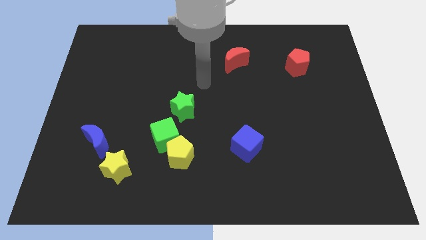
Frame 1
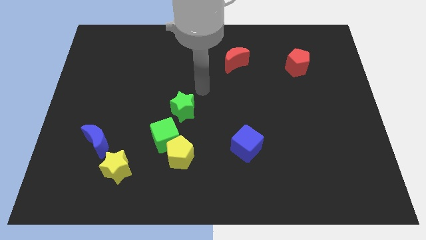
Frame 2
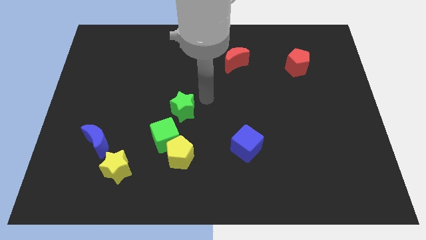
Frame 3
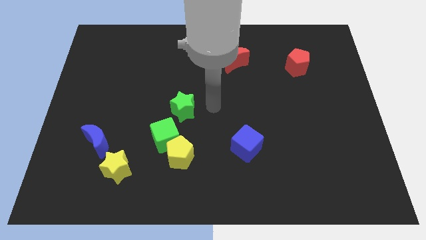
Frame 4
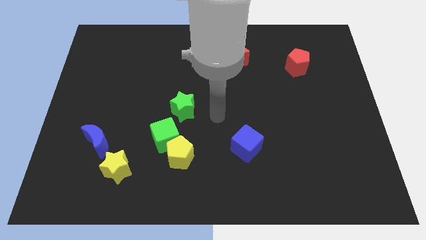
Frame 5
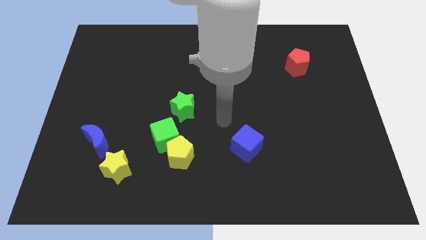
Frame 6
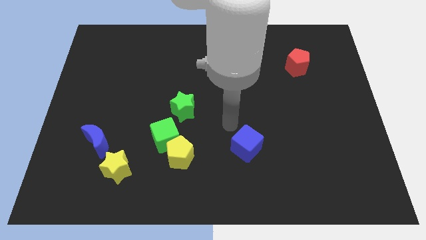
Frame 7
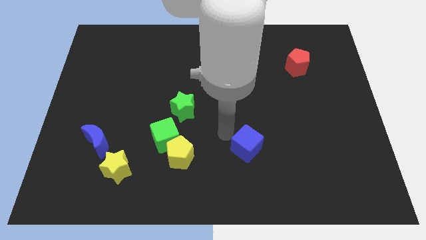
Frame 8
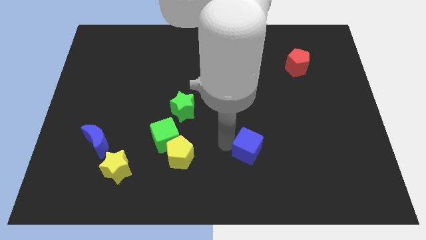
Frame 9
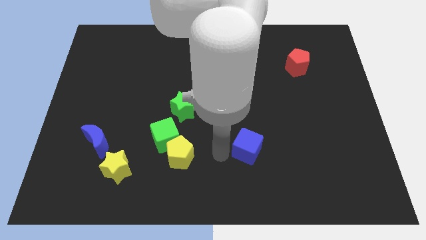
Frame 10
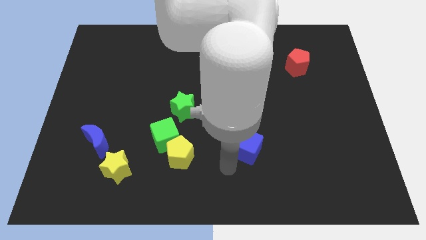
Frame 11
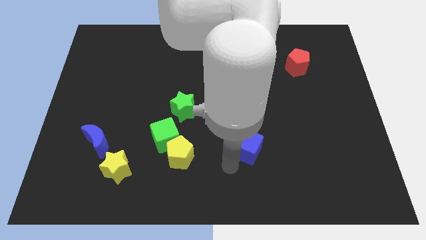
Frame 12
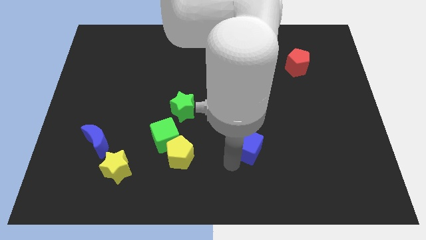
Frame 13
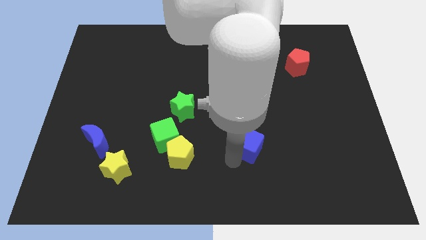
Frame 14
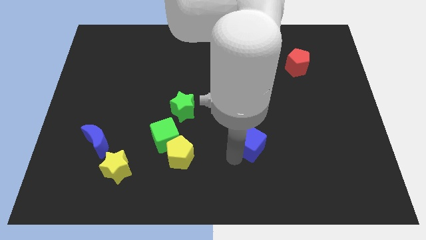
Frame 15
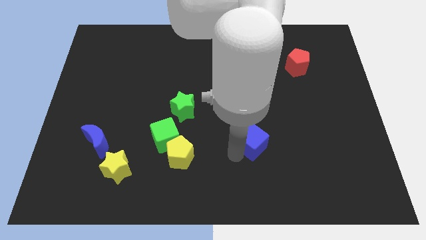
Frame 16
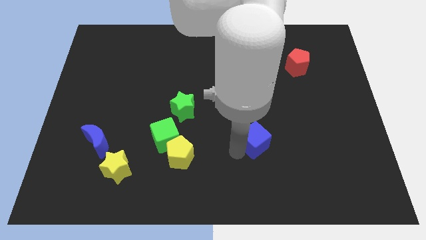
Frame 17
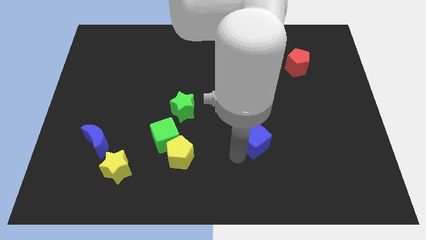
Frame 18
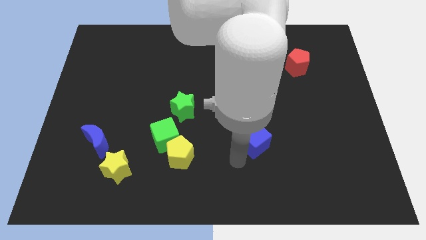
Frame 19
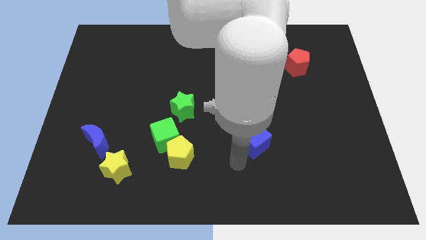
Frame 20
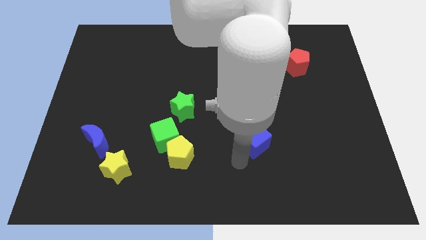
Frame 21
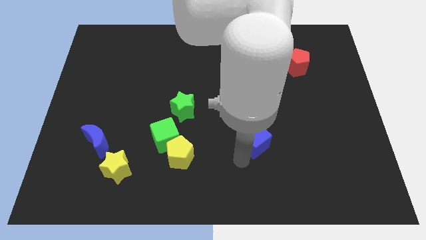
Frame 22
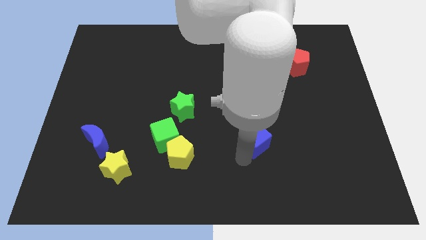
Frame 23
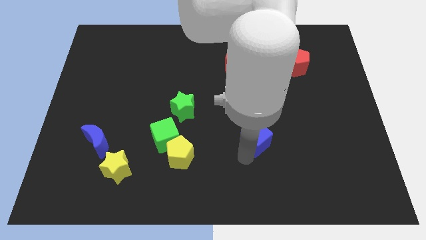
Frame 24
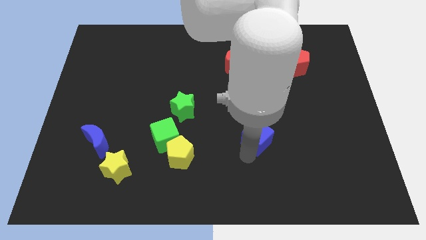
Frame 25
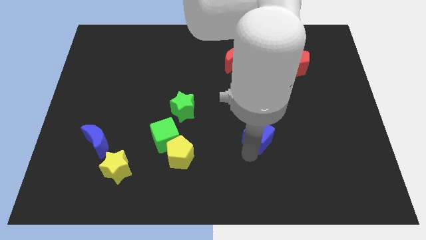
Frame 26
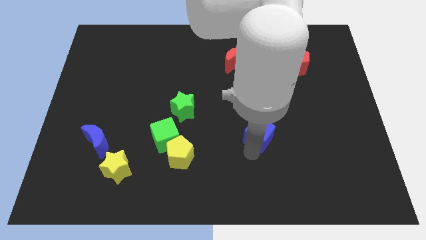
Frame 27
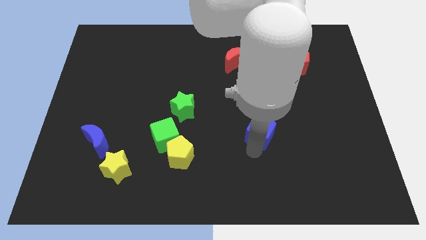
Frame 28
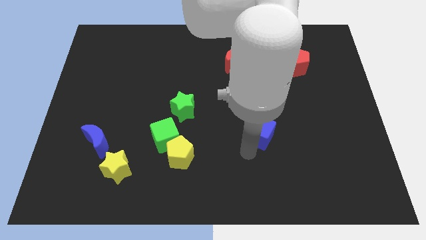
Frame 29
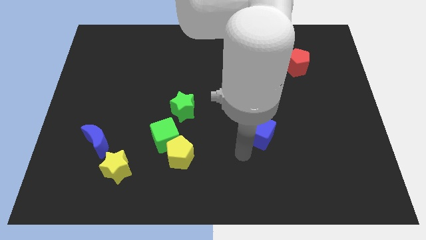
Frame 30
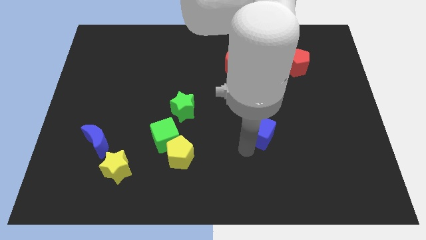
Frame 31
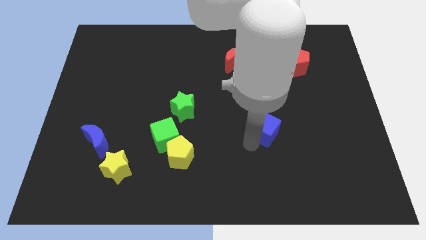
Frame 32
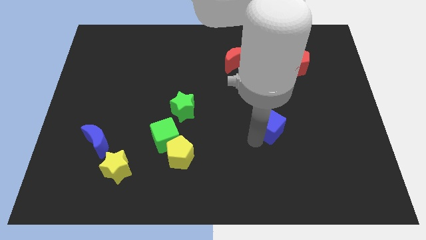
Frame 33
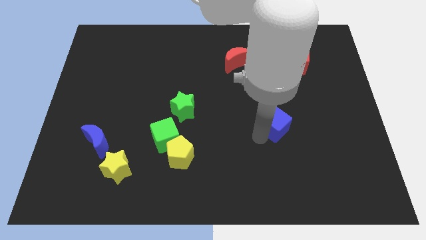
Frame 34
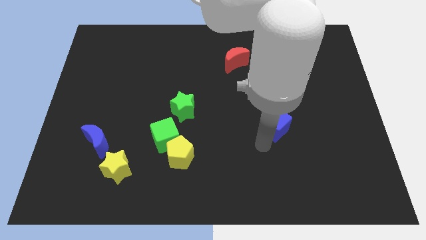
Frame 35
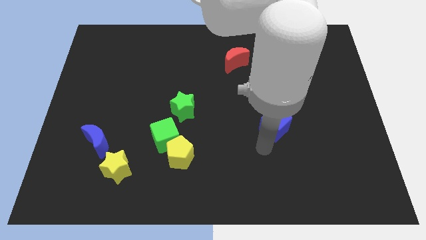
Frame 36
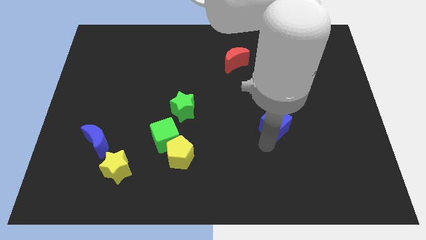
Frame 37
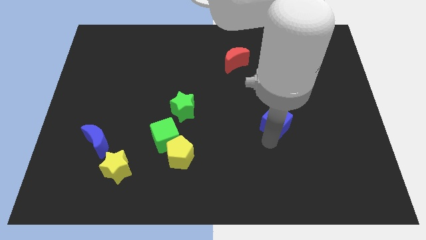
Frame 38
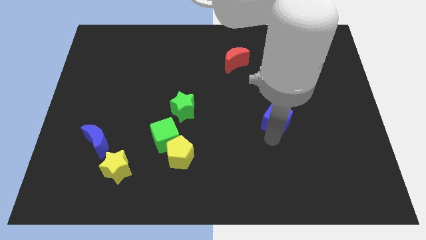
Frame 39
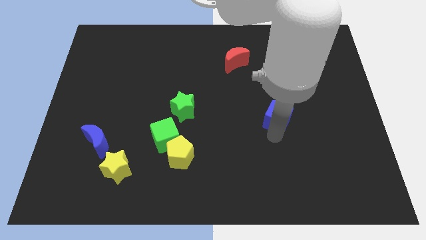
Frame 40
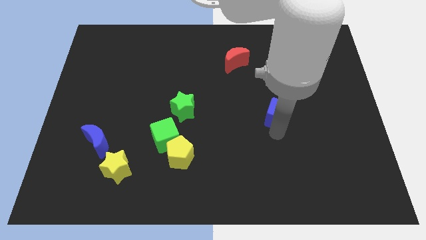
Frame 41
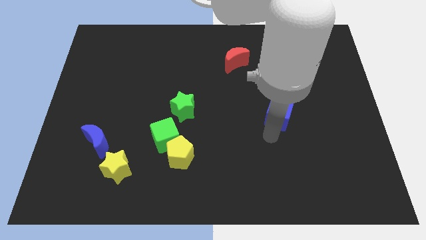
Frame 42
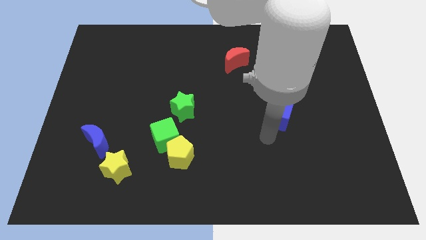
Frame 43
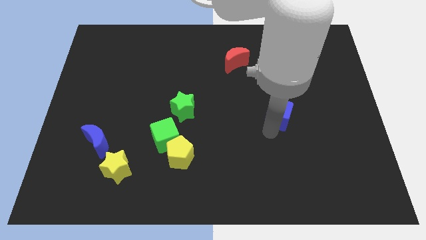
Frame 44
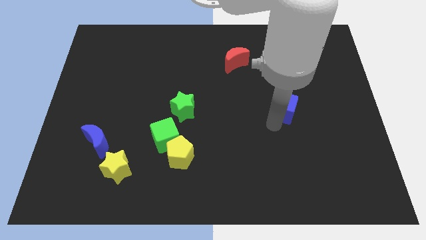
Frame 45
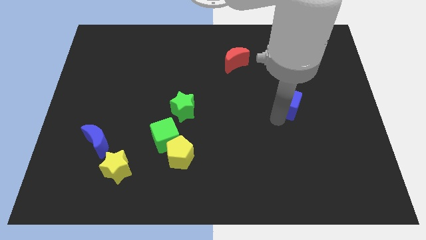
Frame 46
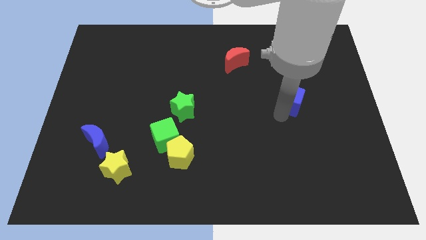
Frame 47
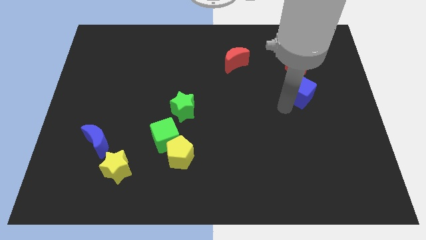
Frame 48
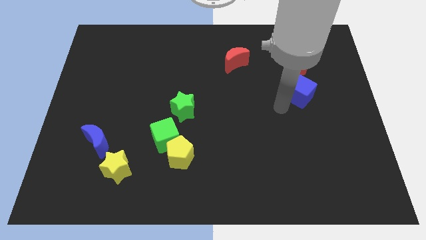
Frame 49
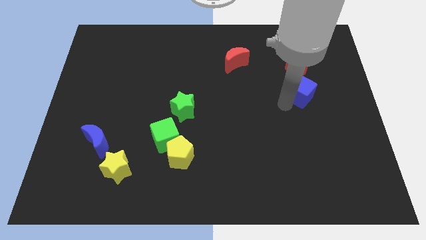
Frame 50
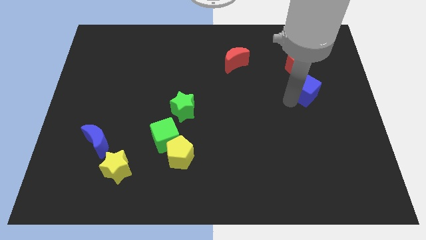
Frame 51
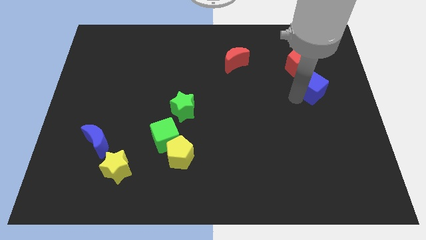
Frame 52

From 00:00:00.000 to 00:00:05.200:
move the blue cube diagonally down and to the right of the red pentagon

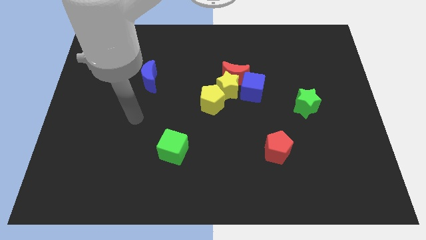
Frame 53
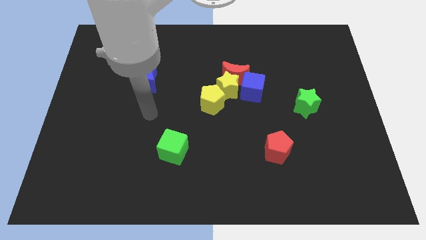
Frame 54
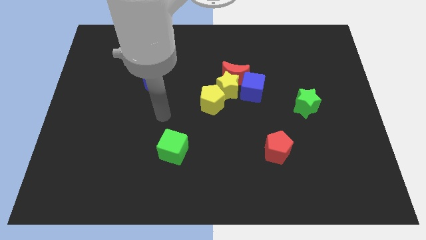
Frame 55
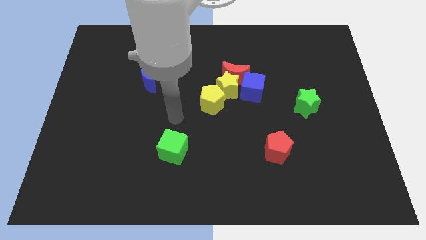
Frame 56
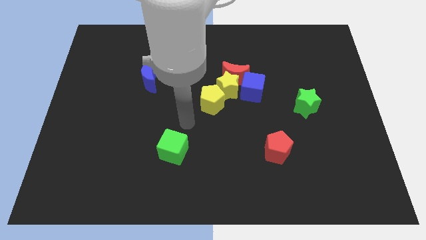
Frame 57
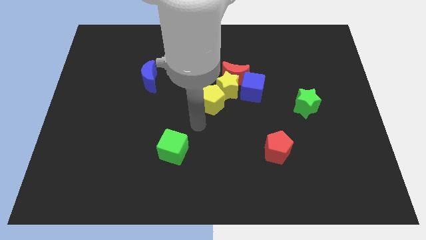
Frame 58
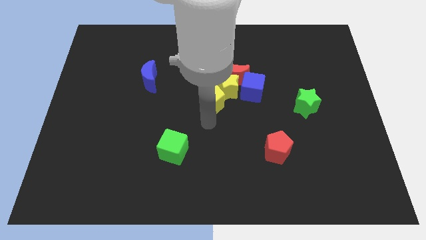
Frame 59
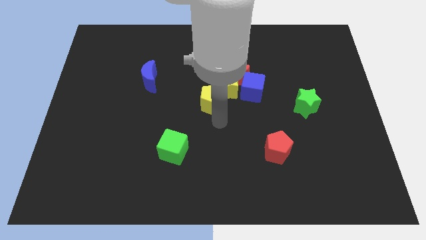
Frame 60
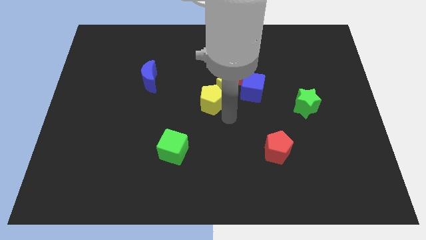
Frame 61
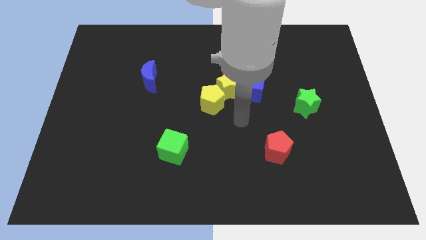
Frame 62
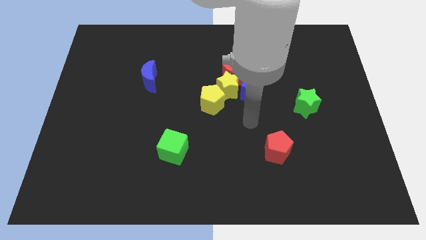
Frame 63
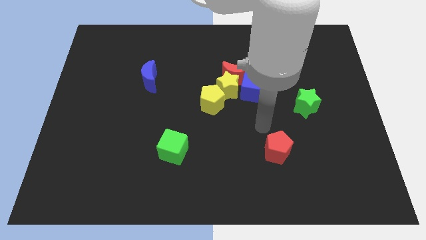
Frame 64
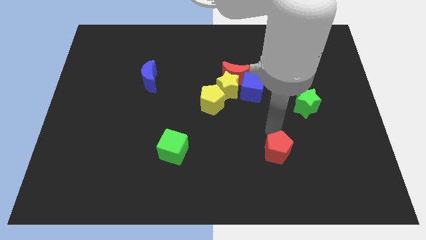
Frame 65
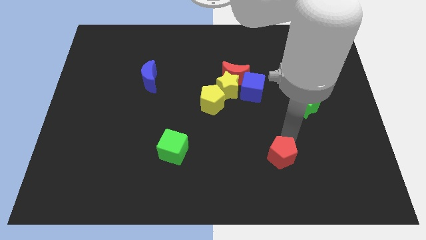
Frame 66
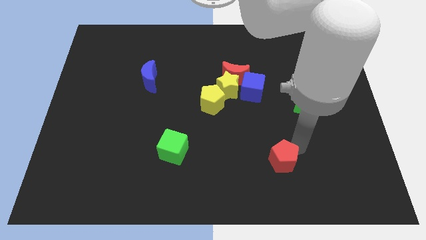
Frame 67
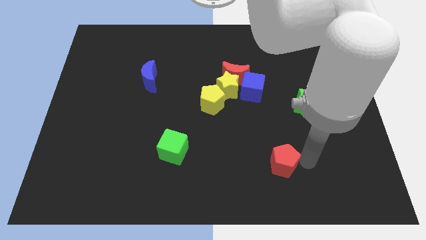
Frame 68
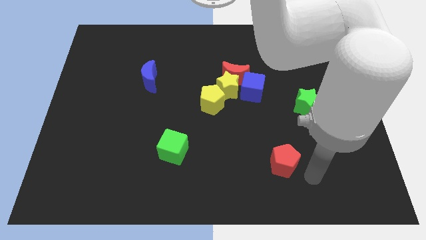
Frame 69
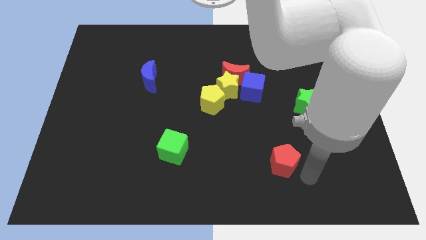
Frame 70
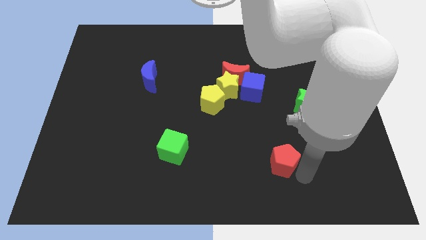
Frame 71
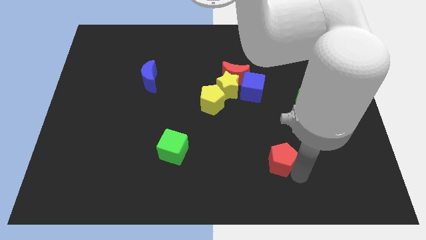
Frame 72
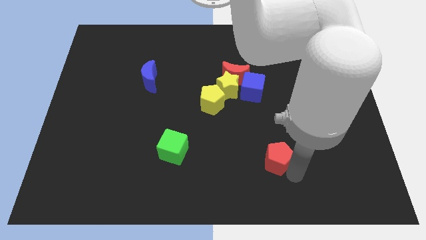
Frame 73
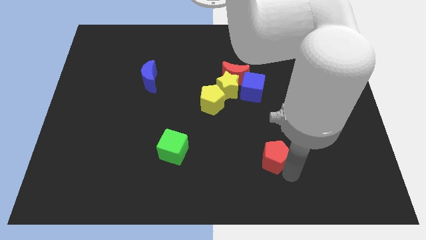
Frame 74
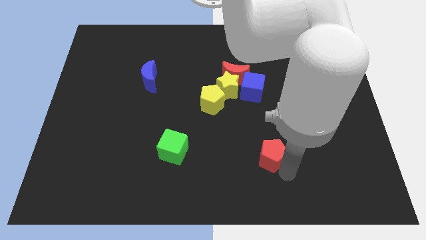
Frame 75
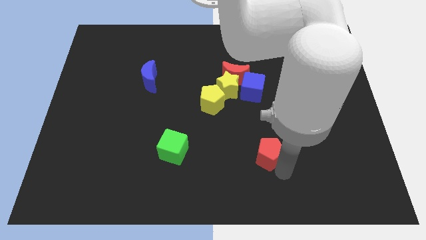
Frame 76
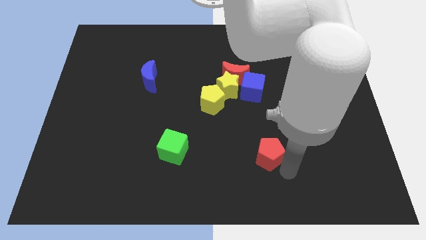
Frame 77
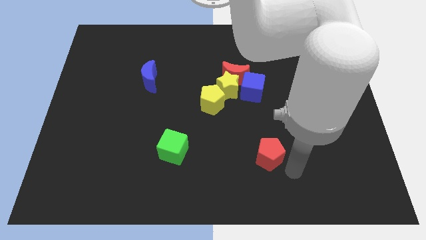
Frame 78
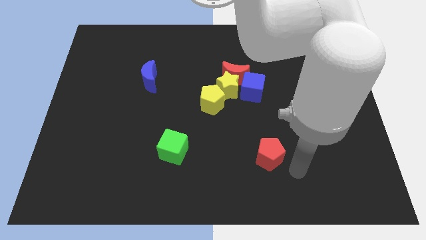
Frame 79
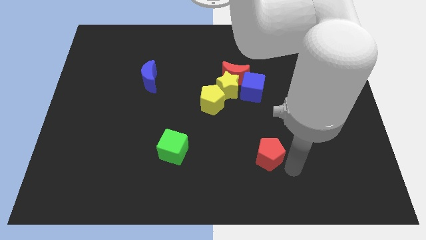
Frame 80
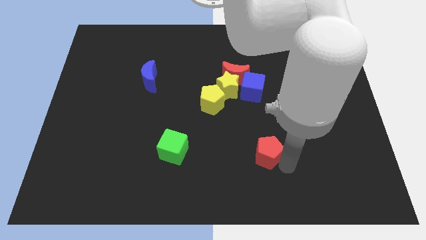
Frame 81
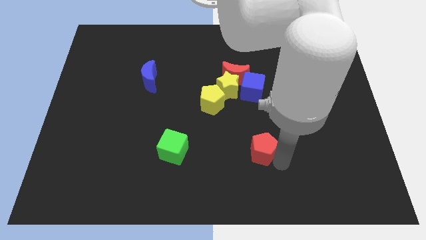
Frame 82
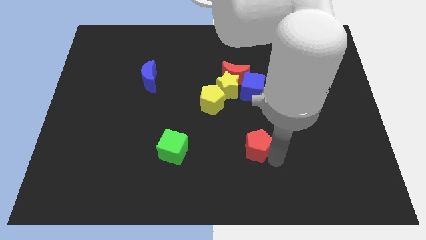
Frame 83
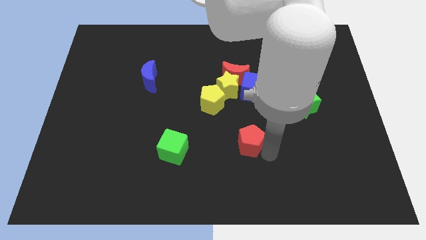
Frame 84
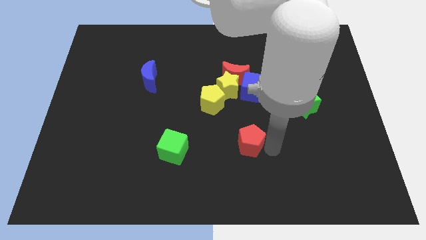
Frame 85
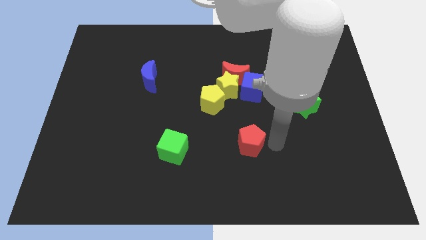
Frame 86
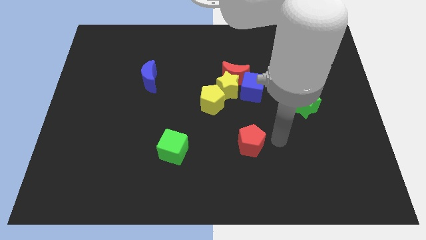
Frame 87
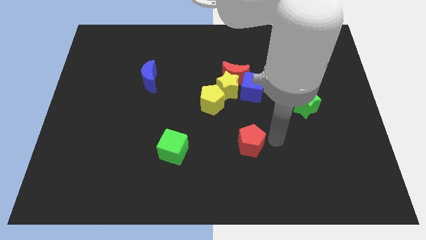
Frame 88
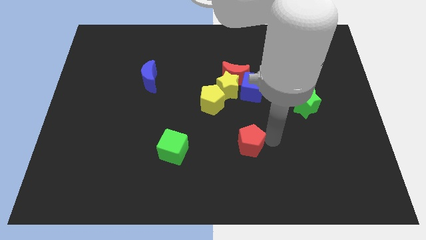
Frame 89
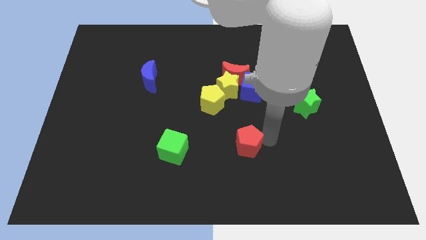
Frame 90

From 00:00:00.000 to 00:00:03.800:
slide the red pentagon to the right side of the green cube
